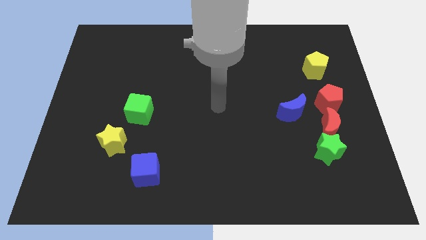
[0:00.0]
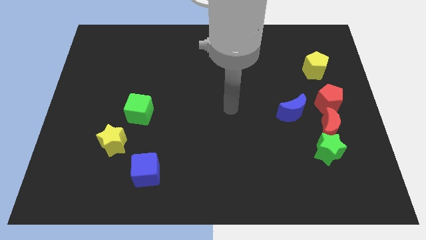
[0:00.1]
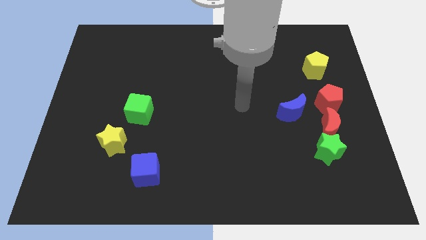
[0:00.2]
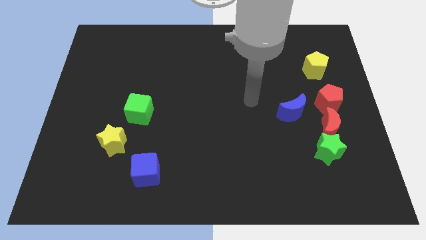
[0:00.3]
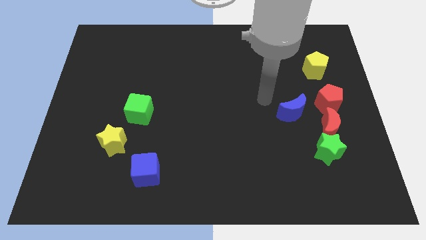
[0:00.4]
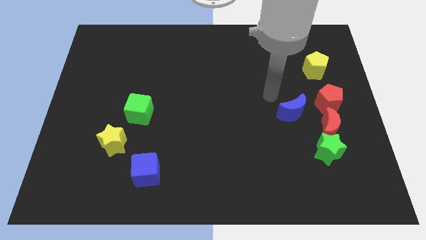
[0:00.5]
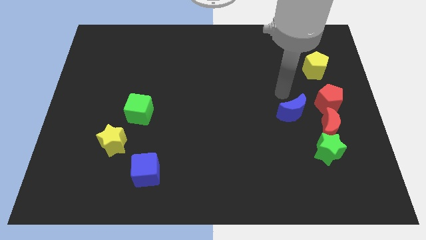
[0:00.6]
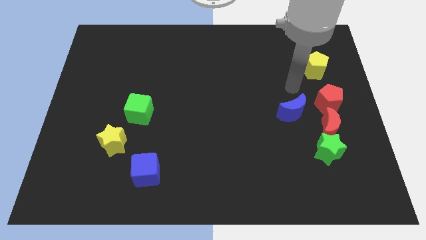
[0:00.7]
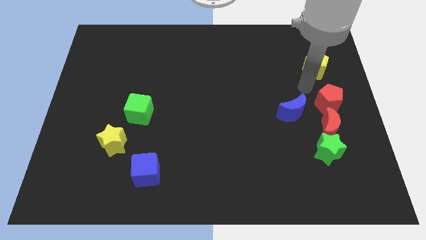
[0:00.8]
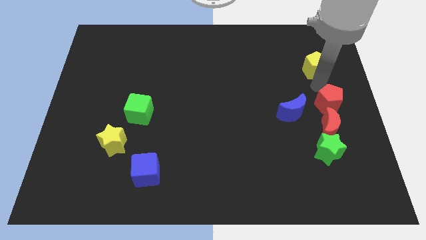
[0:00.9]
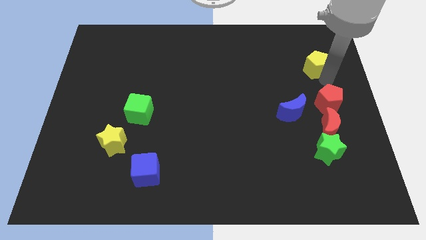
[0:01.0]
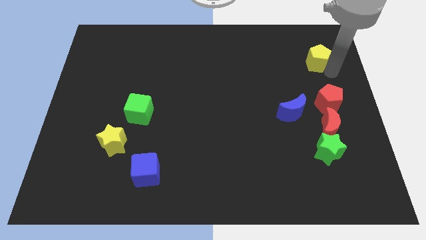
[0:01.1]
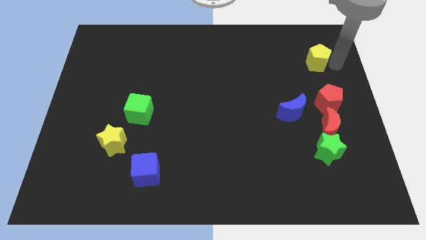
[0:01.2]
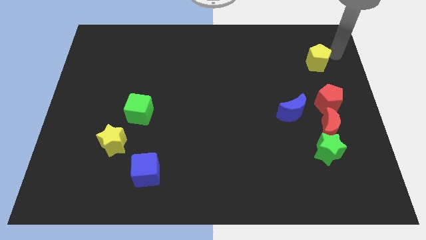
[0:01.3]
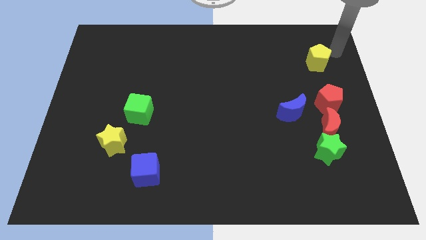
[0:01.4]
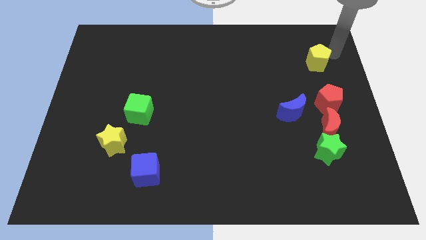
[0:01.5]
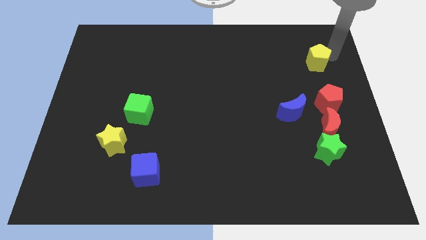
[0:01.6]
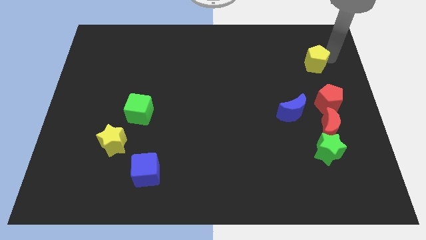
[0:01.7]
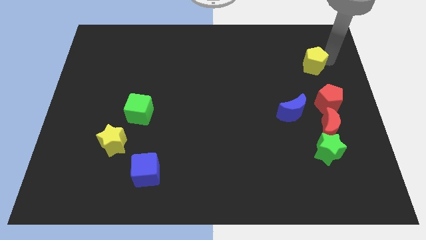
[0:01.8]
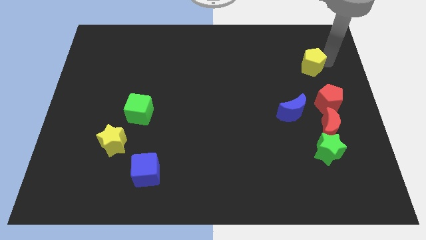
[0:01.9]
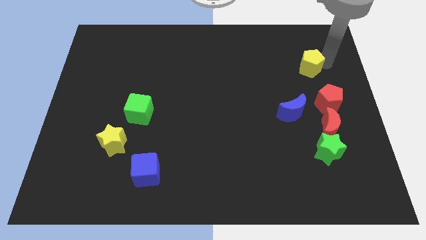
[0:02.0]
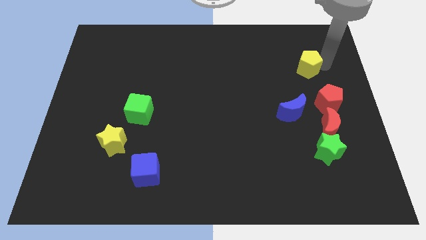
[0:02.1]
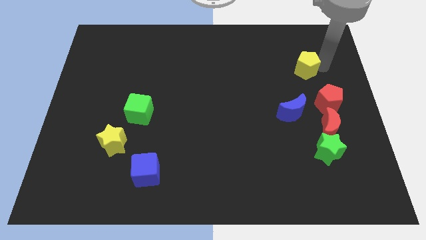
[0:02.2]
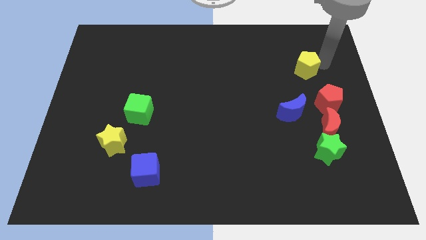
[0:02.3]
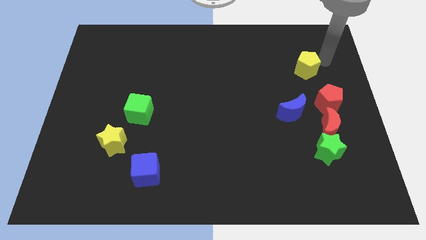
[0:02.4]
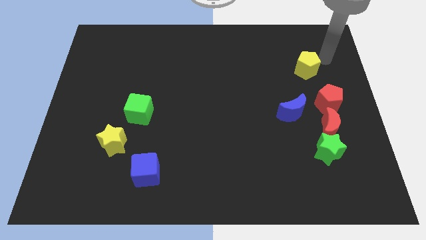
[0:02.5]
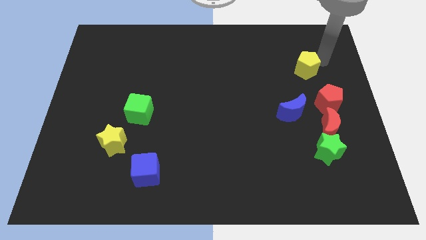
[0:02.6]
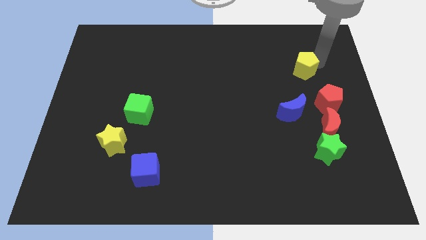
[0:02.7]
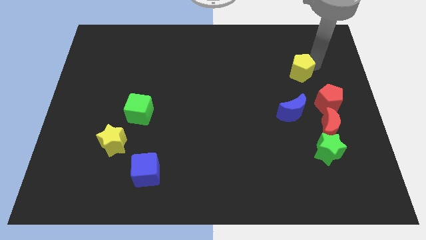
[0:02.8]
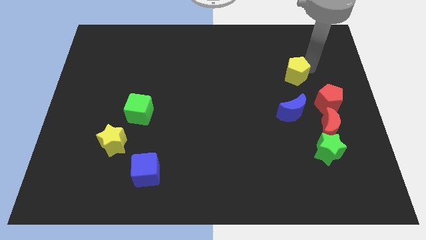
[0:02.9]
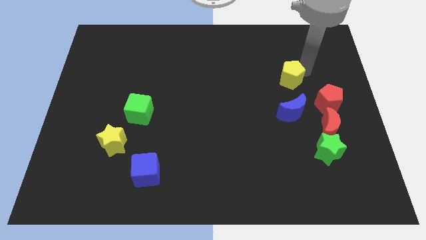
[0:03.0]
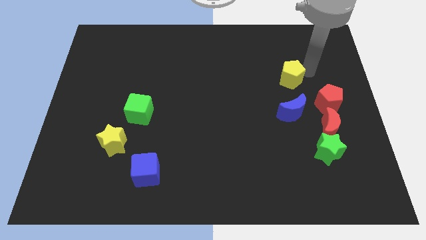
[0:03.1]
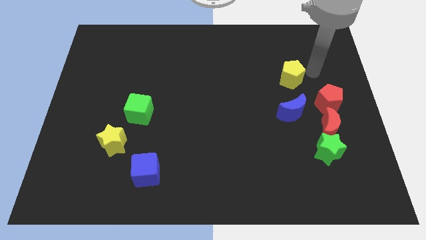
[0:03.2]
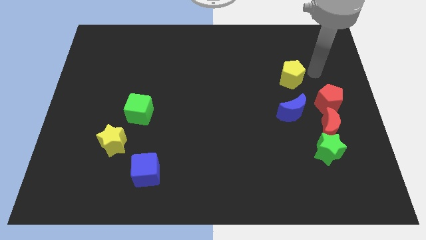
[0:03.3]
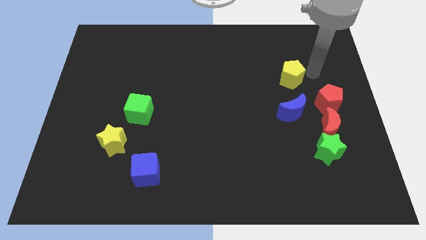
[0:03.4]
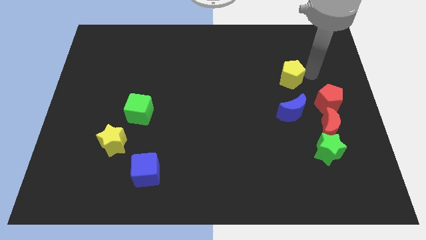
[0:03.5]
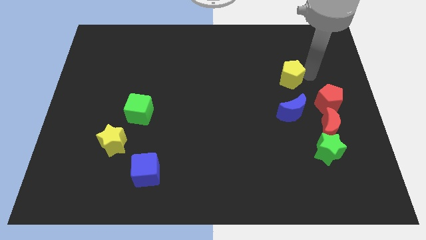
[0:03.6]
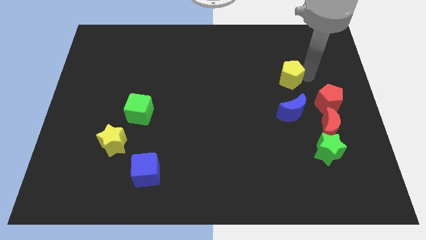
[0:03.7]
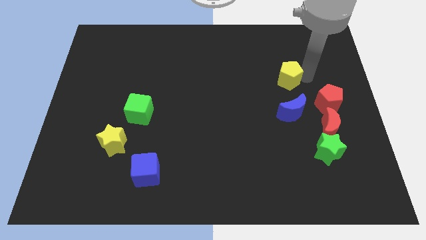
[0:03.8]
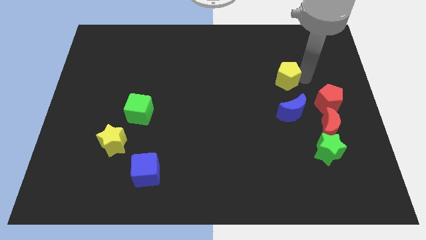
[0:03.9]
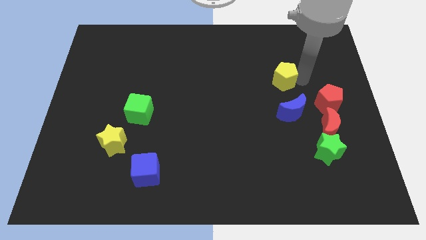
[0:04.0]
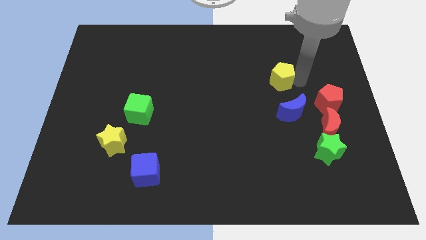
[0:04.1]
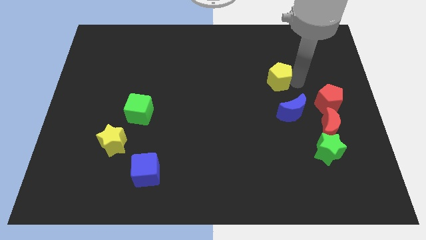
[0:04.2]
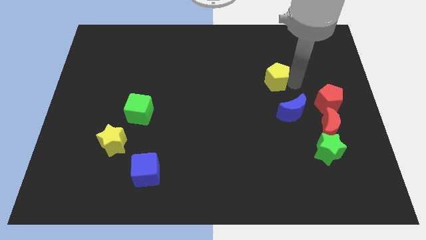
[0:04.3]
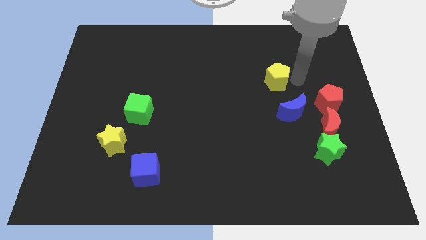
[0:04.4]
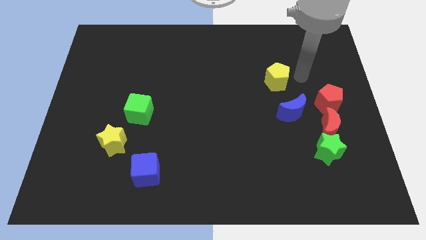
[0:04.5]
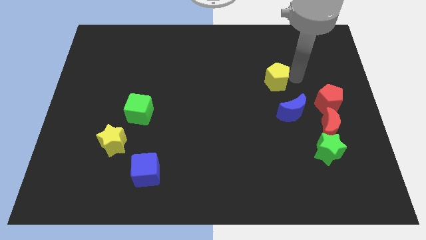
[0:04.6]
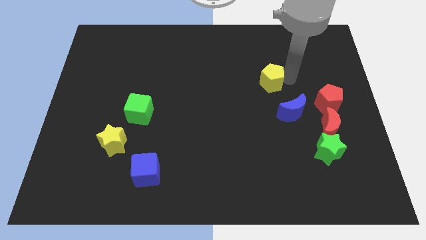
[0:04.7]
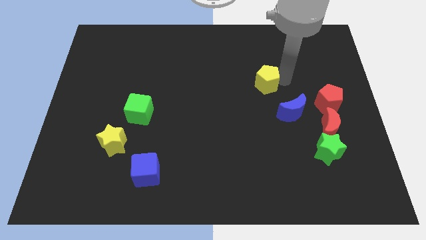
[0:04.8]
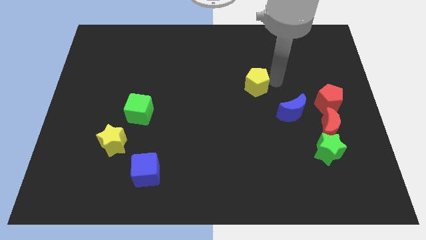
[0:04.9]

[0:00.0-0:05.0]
slide the yellow pentagon to the middle of the board
